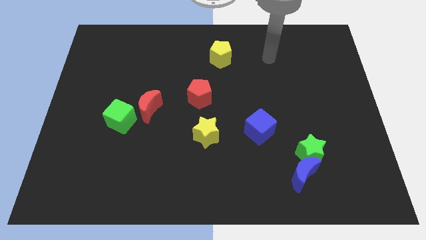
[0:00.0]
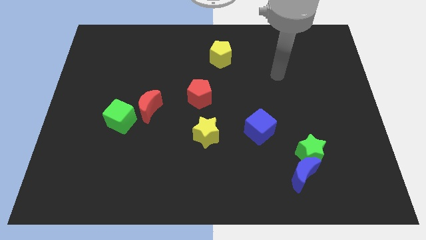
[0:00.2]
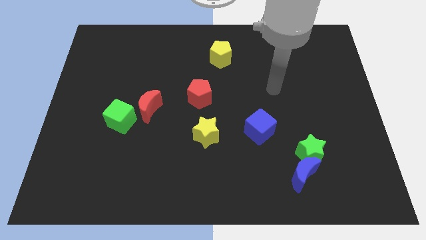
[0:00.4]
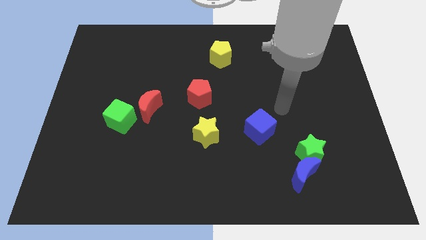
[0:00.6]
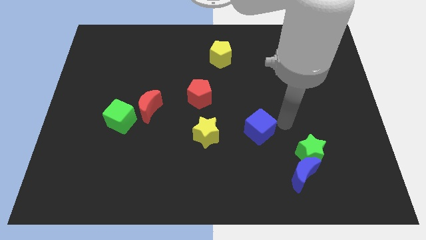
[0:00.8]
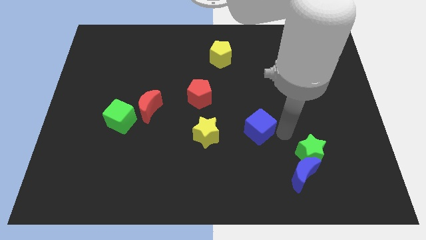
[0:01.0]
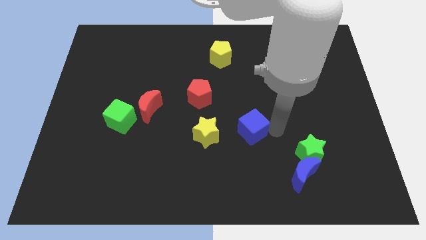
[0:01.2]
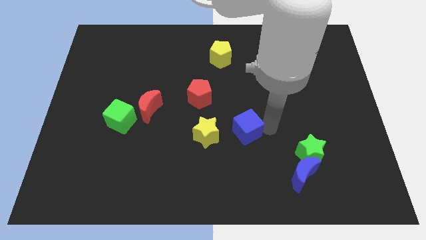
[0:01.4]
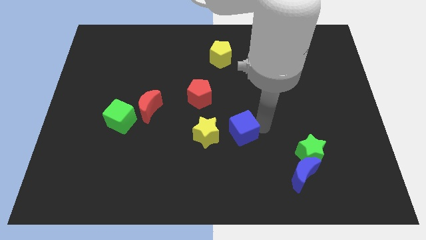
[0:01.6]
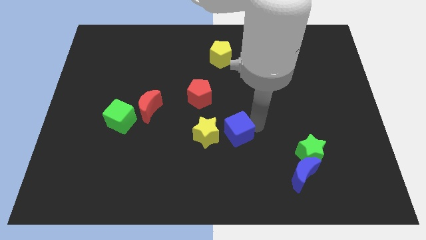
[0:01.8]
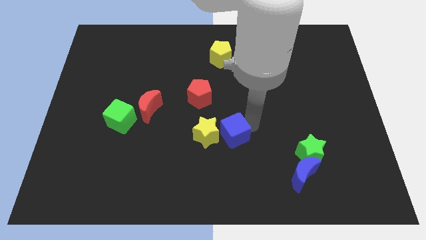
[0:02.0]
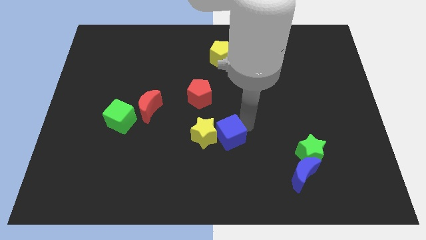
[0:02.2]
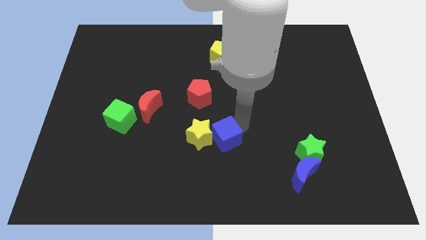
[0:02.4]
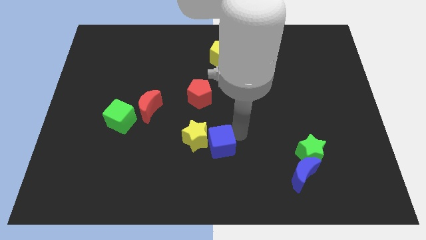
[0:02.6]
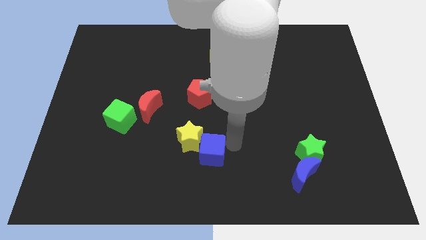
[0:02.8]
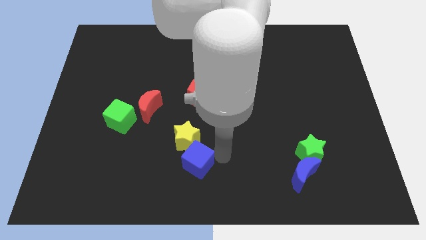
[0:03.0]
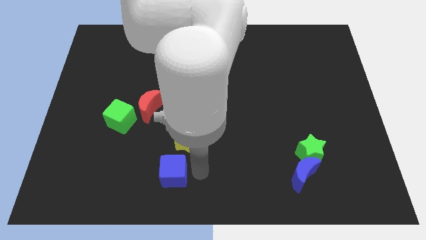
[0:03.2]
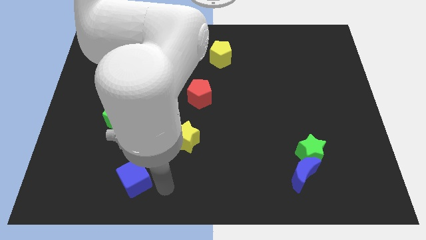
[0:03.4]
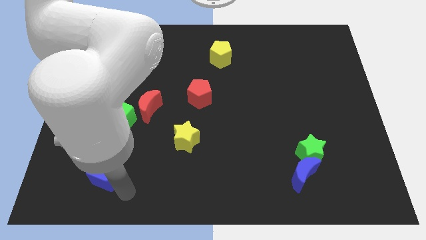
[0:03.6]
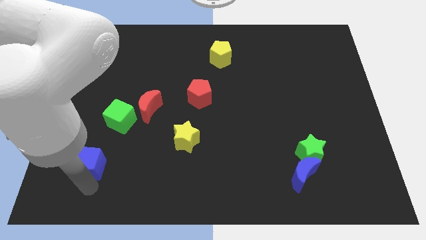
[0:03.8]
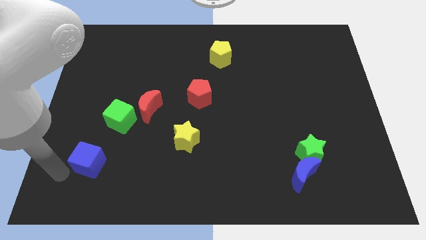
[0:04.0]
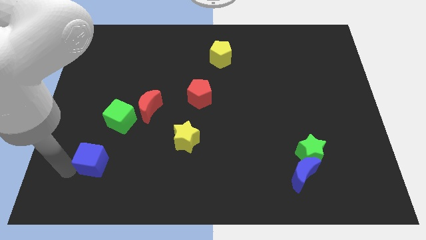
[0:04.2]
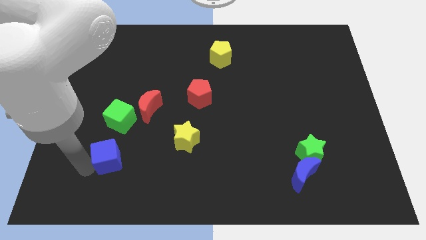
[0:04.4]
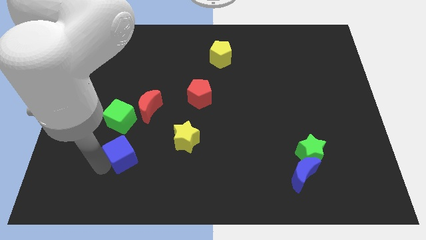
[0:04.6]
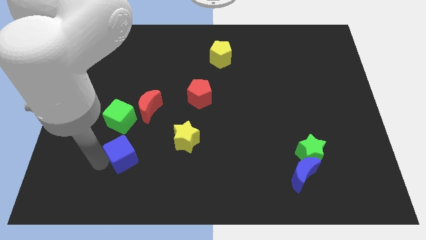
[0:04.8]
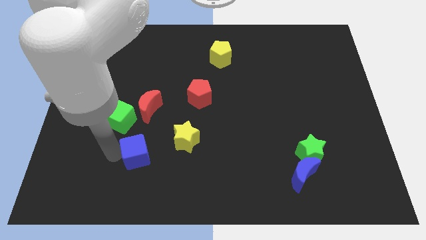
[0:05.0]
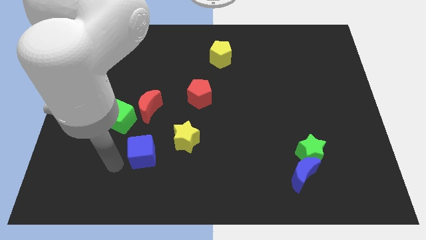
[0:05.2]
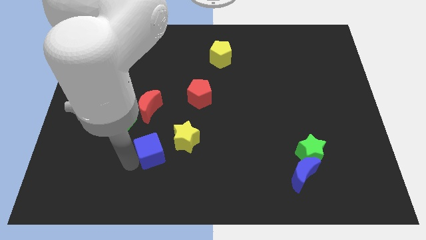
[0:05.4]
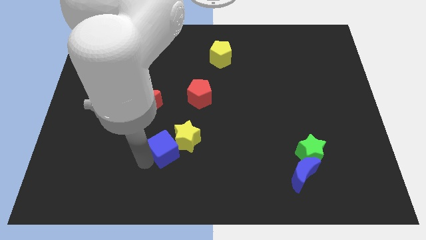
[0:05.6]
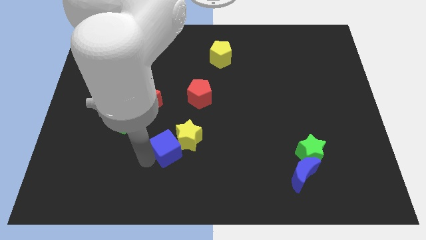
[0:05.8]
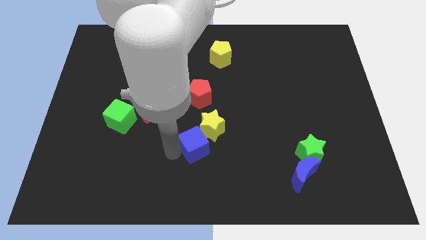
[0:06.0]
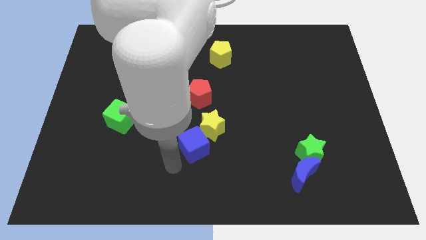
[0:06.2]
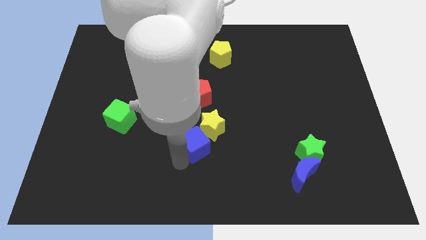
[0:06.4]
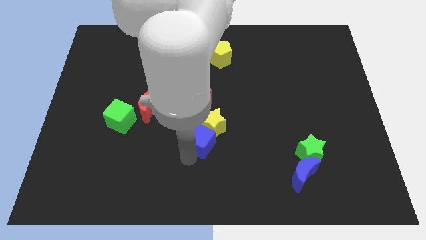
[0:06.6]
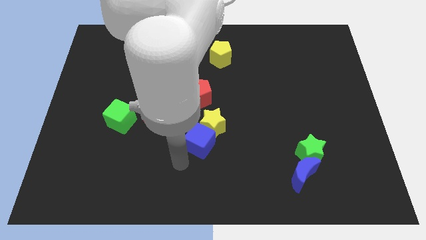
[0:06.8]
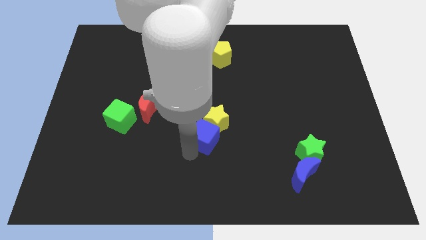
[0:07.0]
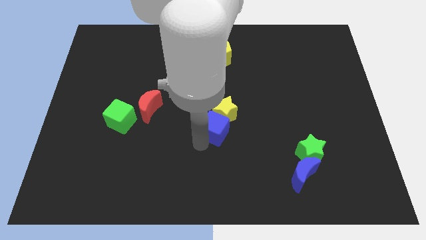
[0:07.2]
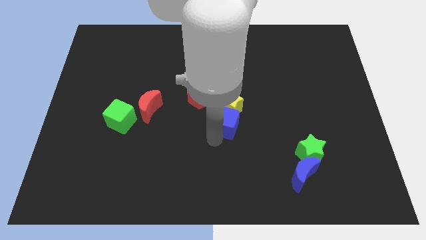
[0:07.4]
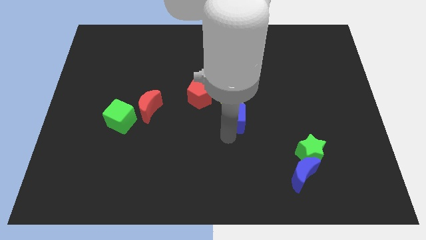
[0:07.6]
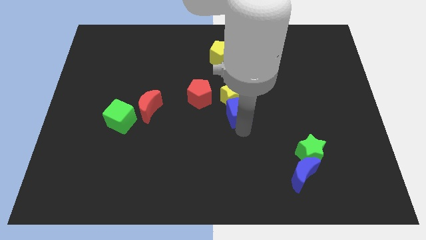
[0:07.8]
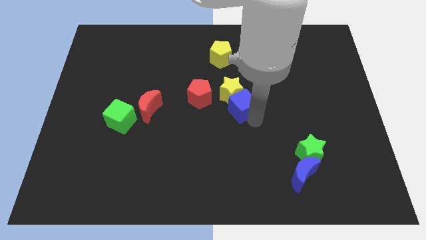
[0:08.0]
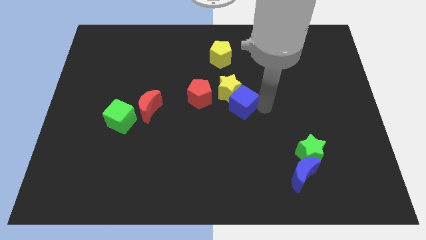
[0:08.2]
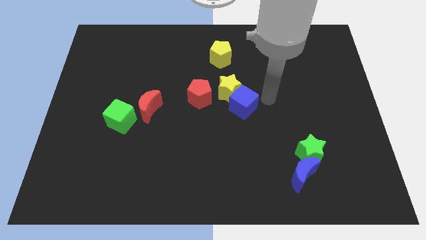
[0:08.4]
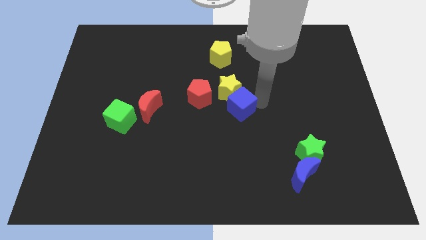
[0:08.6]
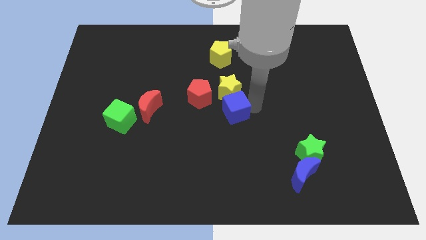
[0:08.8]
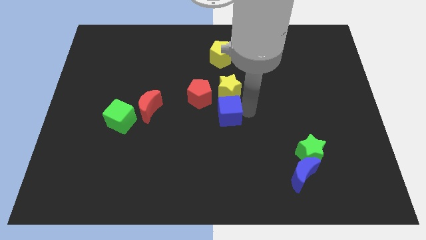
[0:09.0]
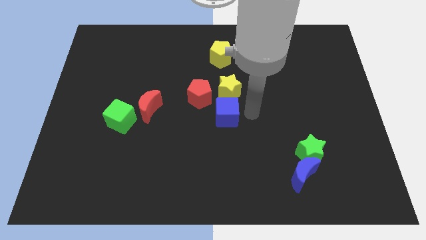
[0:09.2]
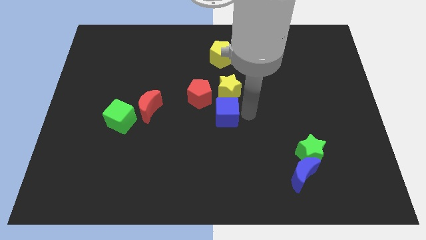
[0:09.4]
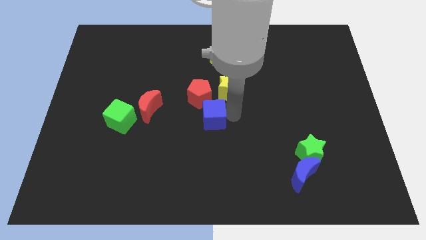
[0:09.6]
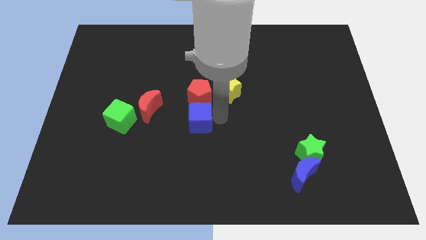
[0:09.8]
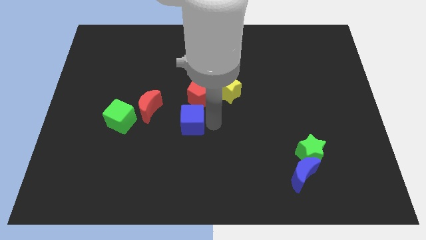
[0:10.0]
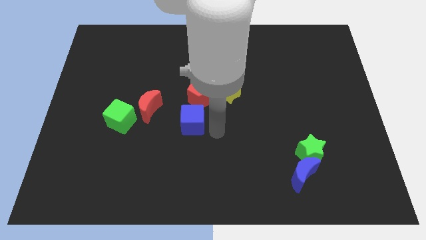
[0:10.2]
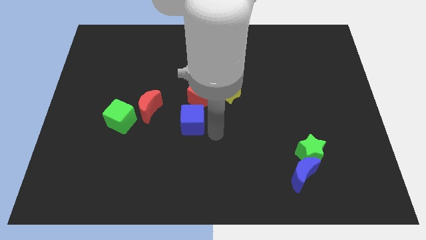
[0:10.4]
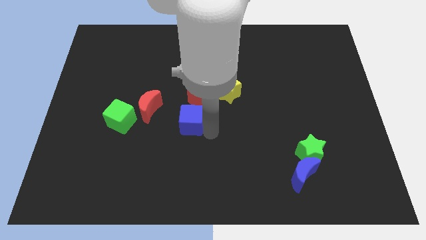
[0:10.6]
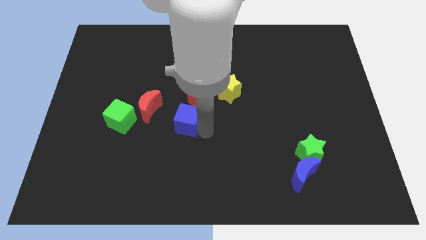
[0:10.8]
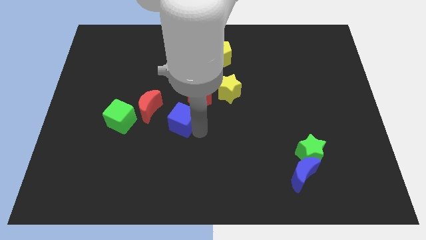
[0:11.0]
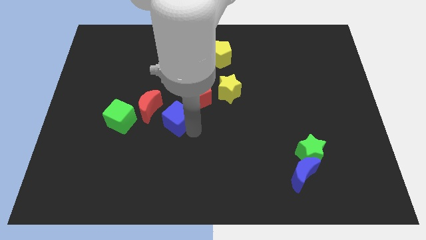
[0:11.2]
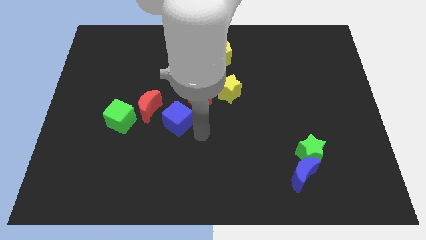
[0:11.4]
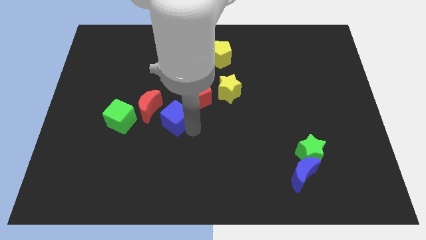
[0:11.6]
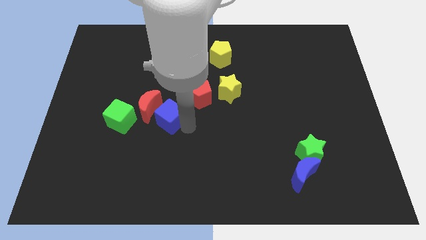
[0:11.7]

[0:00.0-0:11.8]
put the blue cube to the red moon

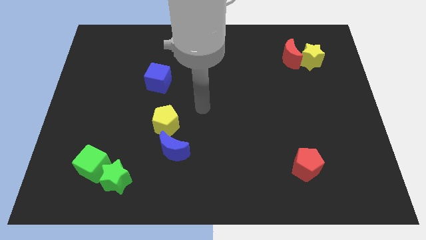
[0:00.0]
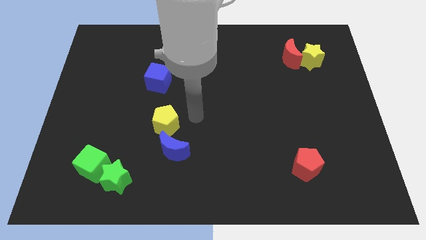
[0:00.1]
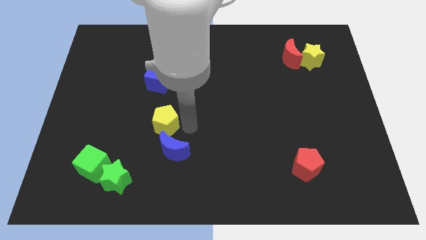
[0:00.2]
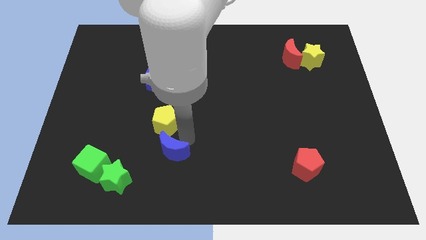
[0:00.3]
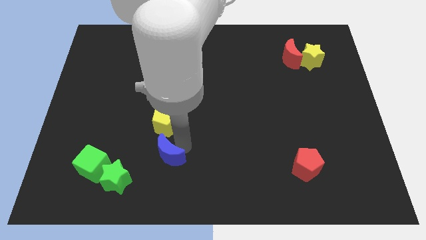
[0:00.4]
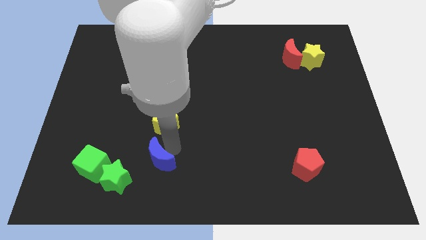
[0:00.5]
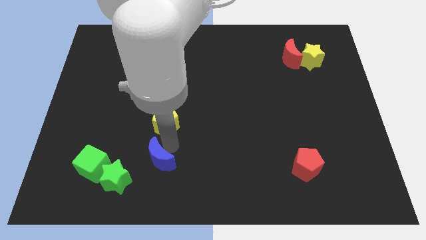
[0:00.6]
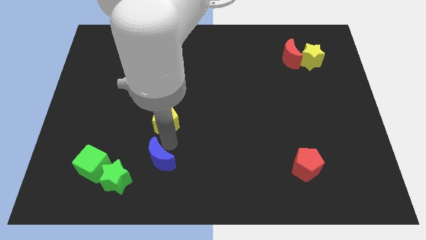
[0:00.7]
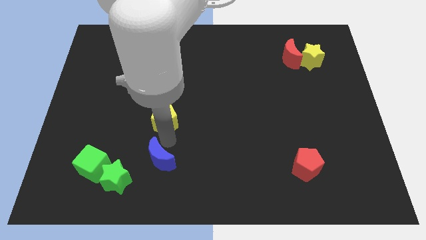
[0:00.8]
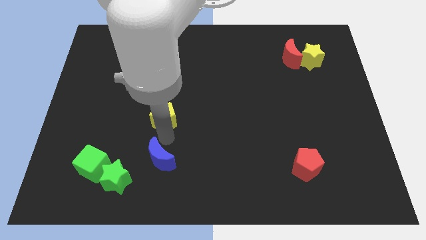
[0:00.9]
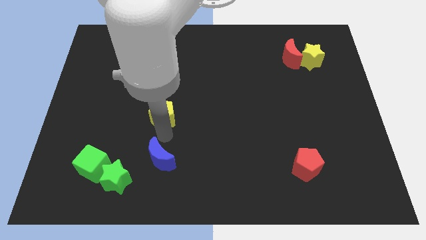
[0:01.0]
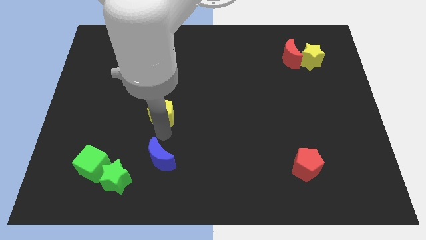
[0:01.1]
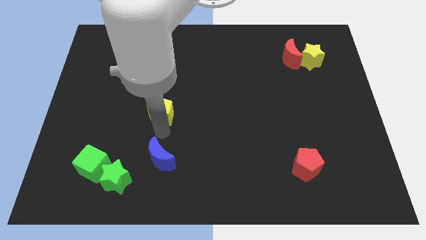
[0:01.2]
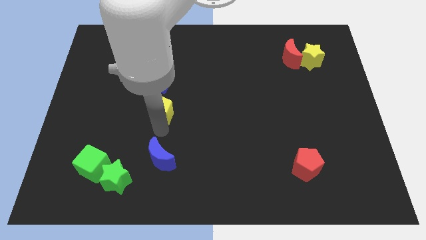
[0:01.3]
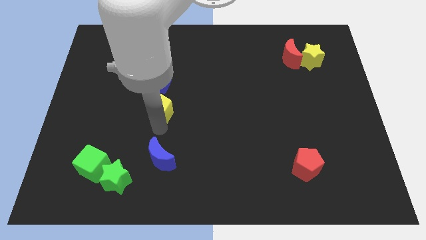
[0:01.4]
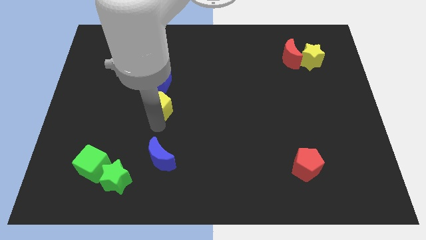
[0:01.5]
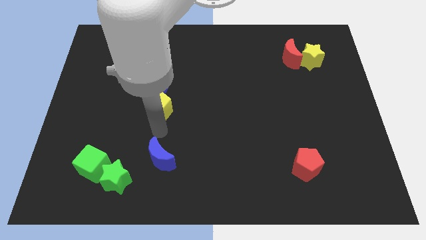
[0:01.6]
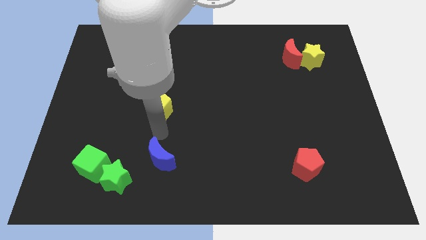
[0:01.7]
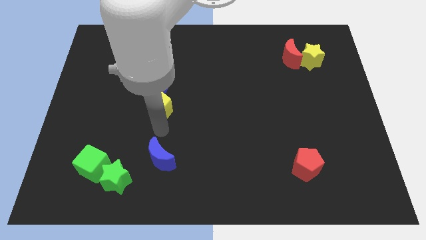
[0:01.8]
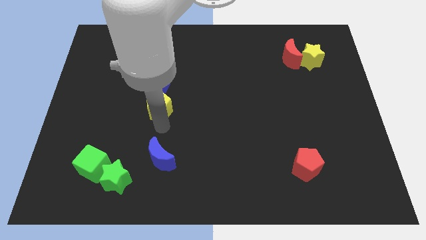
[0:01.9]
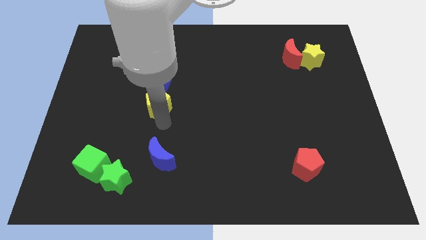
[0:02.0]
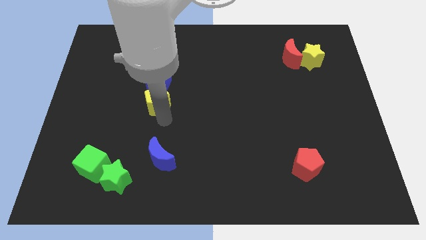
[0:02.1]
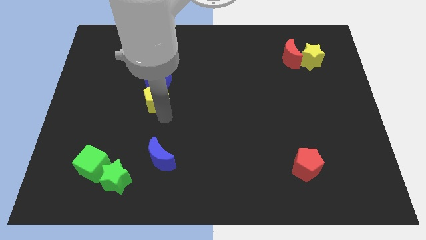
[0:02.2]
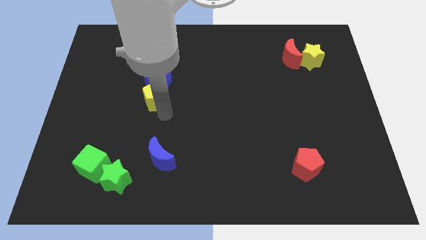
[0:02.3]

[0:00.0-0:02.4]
push the yellow pentagon towards the blue cube
